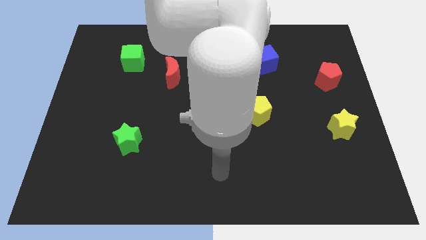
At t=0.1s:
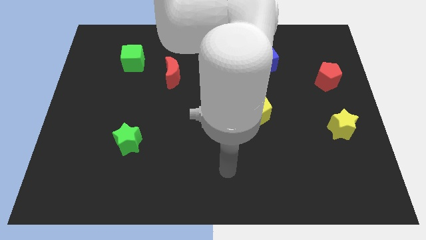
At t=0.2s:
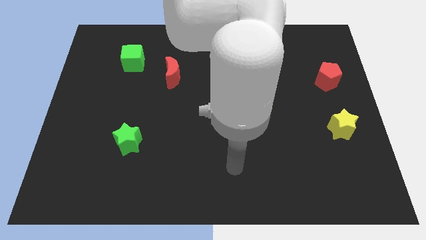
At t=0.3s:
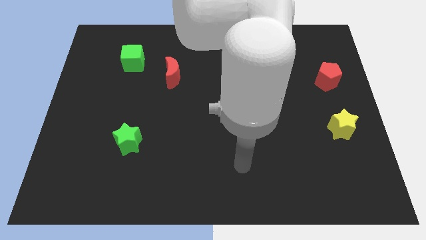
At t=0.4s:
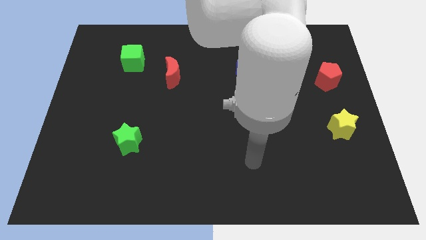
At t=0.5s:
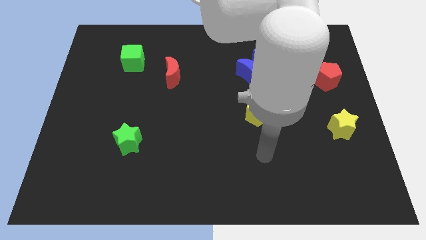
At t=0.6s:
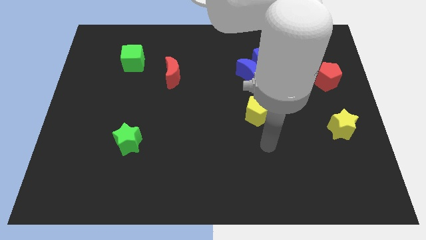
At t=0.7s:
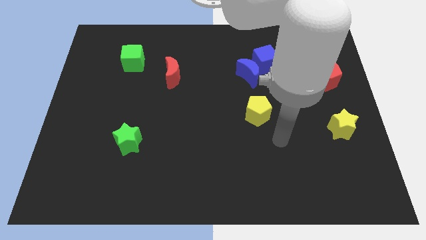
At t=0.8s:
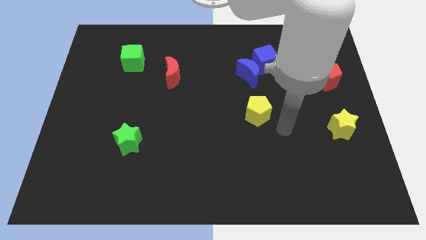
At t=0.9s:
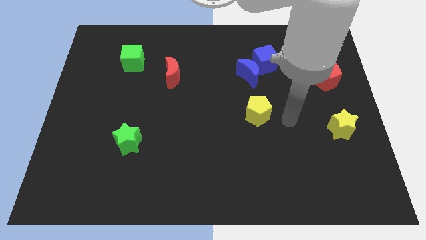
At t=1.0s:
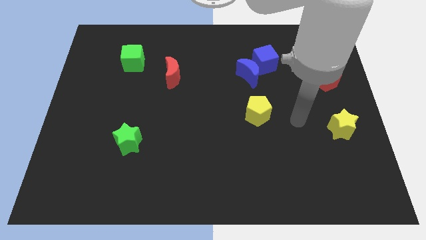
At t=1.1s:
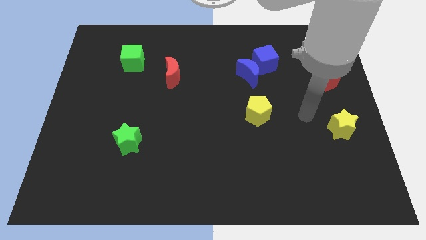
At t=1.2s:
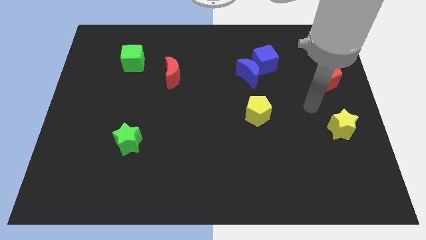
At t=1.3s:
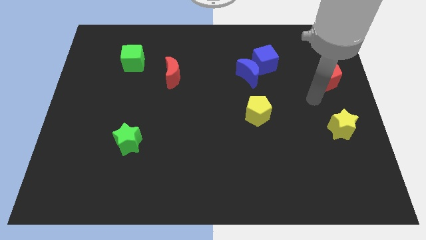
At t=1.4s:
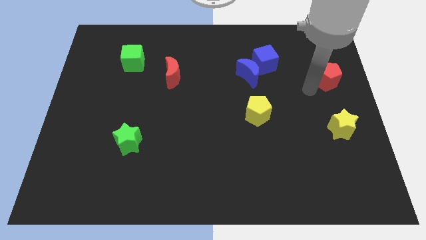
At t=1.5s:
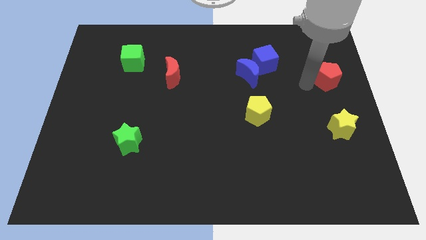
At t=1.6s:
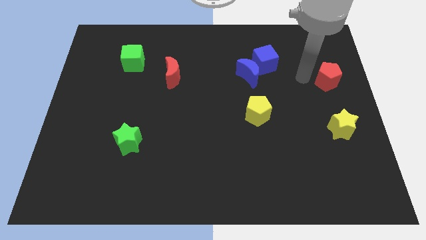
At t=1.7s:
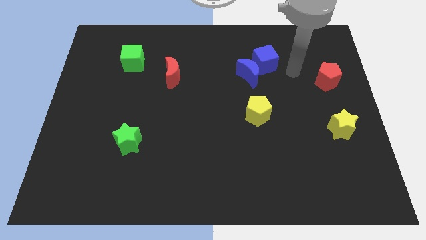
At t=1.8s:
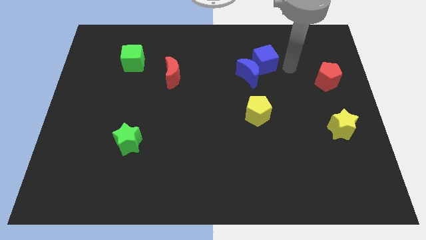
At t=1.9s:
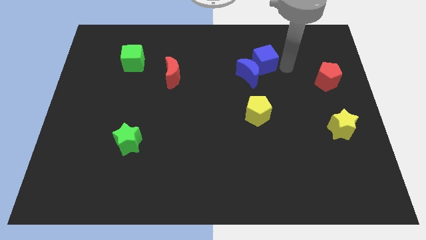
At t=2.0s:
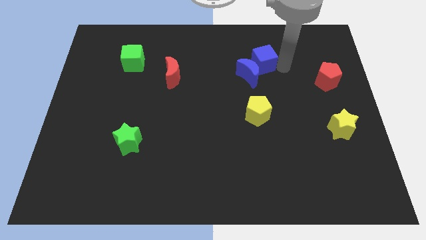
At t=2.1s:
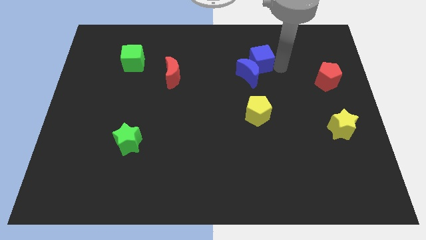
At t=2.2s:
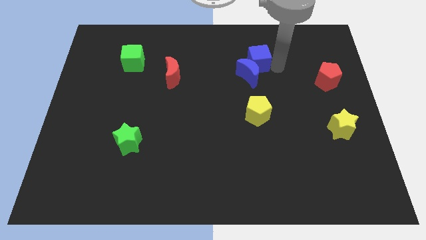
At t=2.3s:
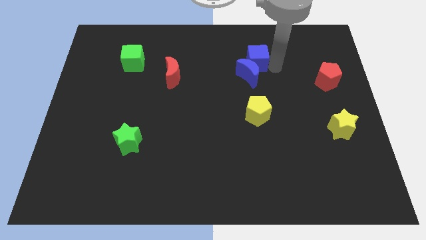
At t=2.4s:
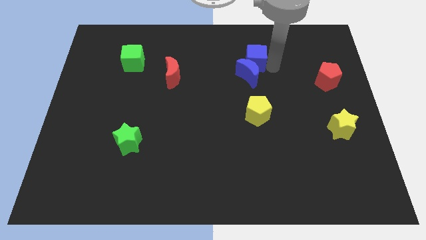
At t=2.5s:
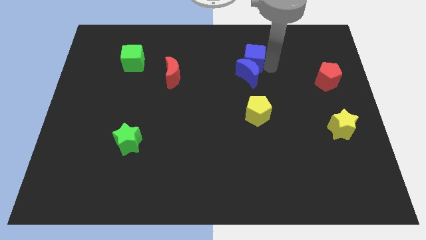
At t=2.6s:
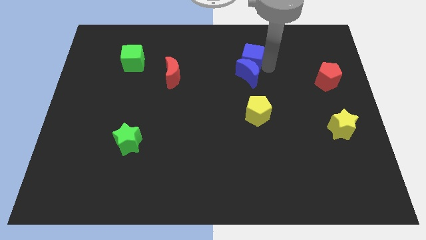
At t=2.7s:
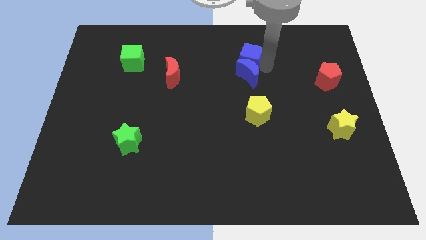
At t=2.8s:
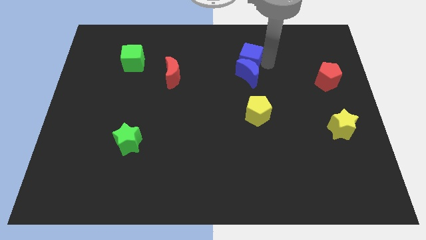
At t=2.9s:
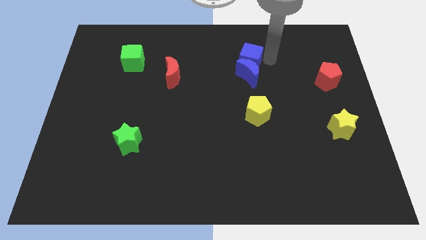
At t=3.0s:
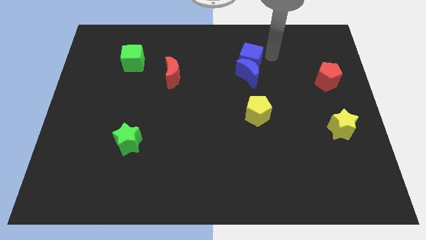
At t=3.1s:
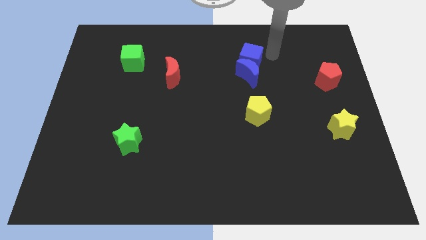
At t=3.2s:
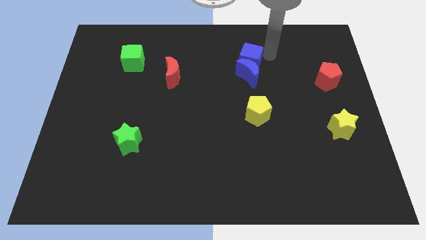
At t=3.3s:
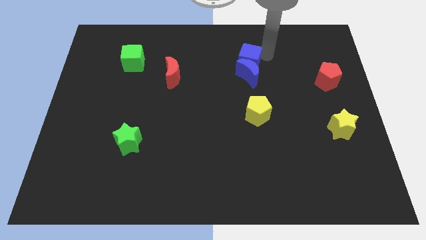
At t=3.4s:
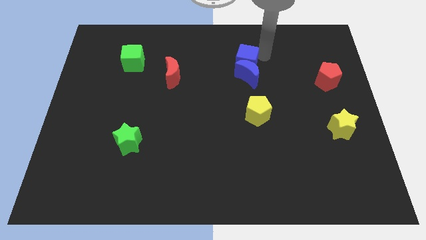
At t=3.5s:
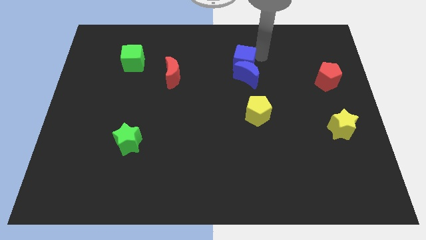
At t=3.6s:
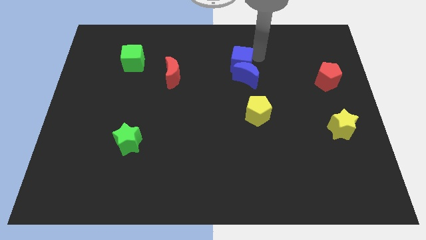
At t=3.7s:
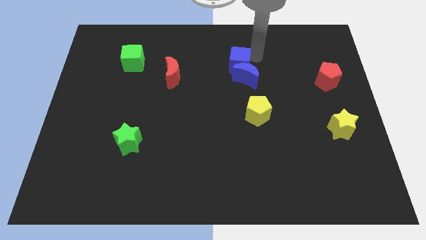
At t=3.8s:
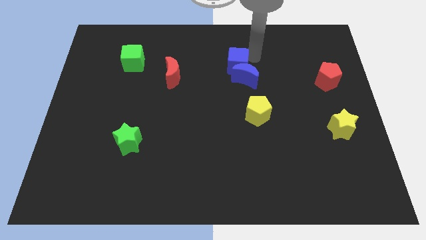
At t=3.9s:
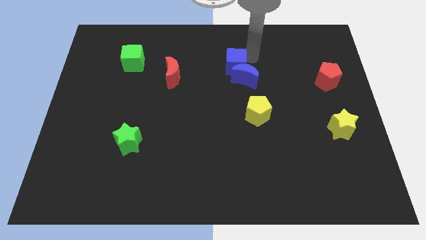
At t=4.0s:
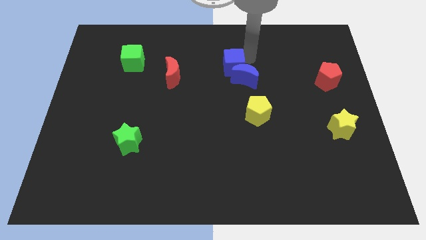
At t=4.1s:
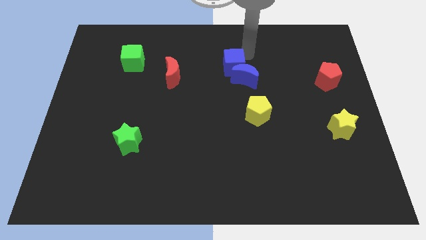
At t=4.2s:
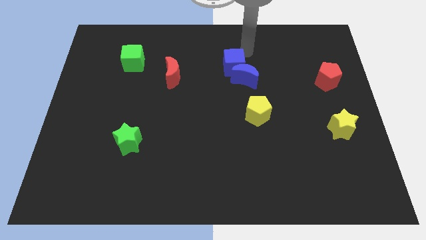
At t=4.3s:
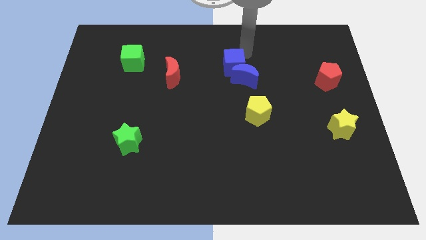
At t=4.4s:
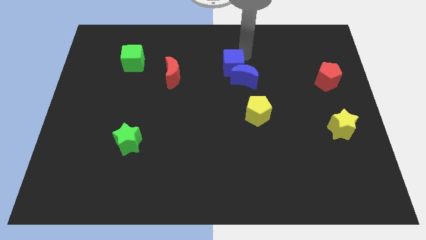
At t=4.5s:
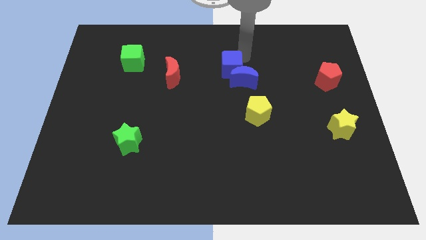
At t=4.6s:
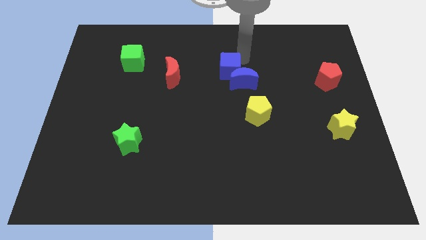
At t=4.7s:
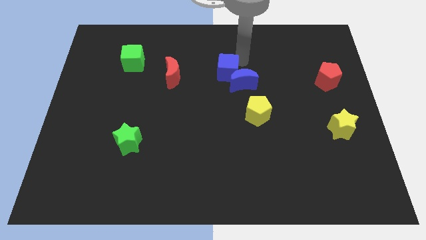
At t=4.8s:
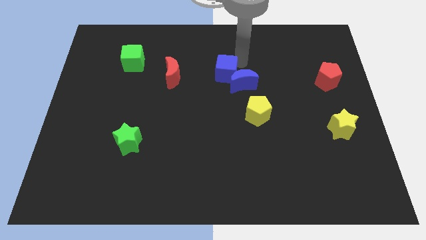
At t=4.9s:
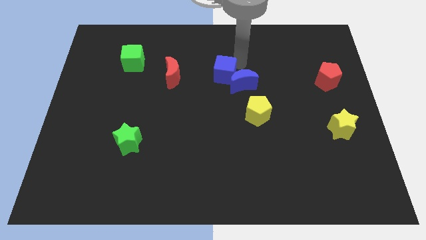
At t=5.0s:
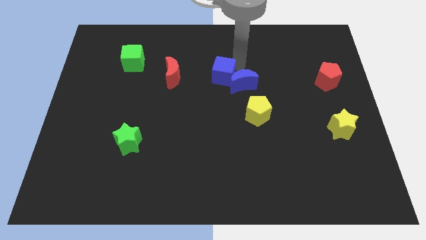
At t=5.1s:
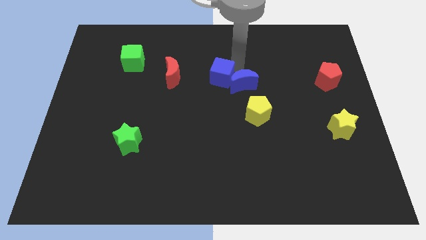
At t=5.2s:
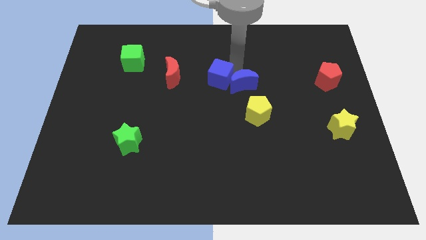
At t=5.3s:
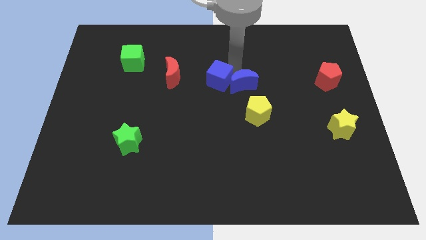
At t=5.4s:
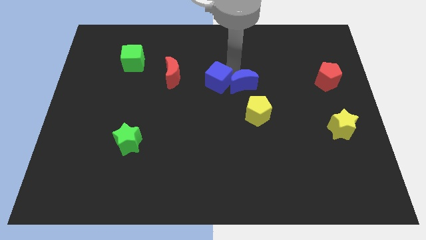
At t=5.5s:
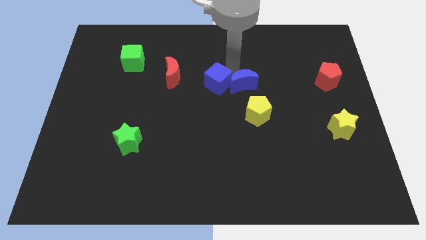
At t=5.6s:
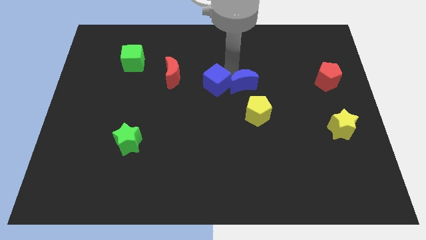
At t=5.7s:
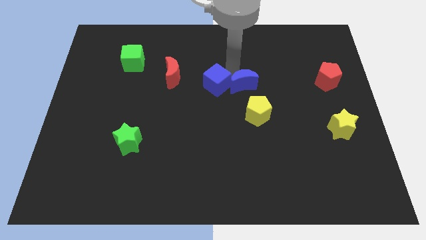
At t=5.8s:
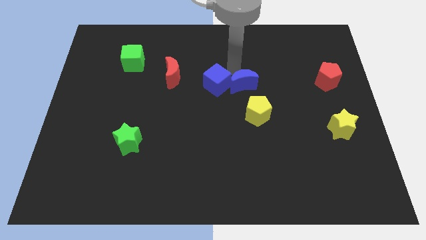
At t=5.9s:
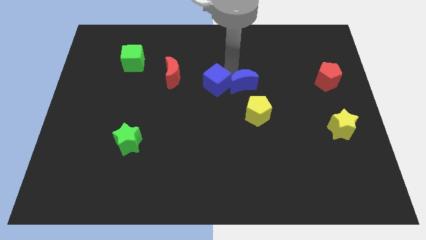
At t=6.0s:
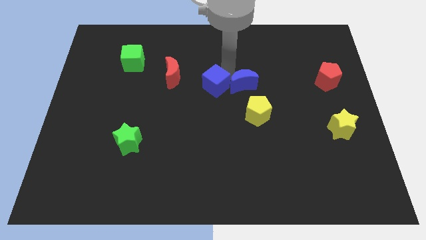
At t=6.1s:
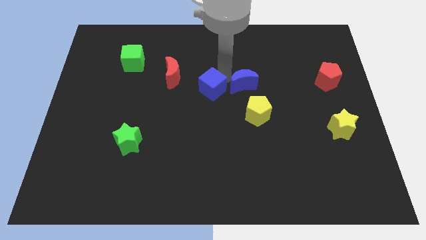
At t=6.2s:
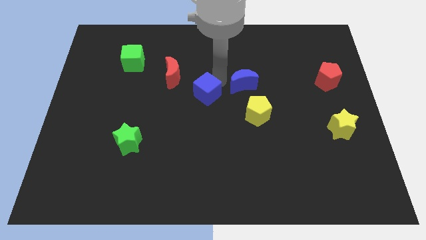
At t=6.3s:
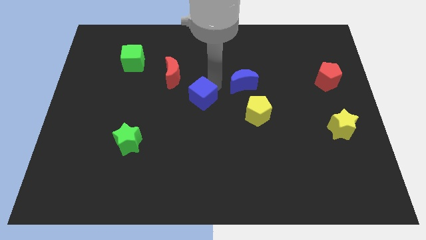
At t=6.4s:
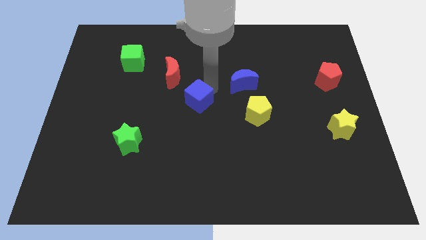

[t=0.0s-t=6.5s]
push the blue cube down and to the left diagonally

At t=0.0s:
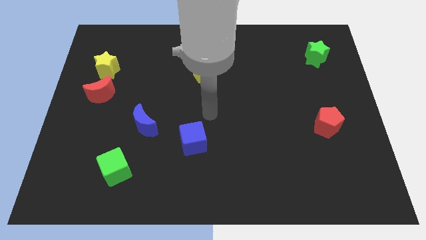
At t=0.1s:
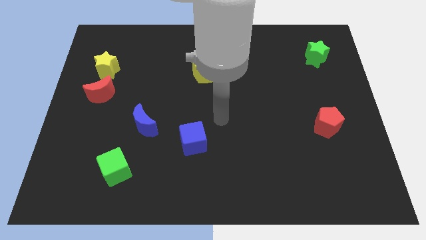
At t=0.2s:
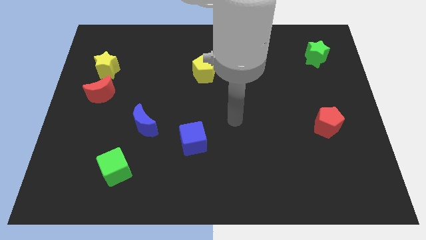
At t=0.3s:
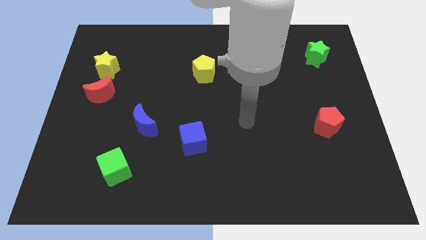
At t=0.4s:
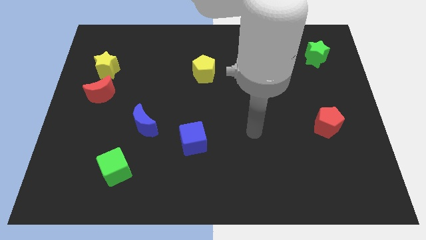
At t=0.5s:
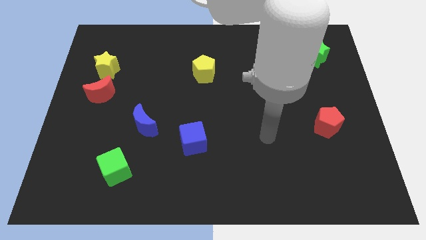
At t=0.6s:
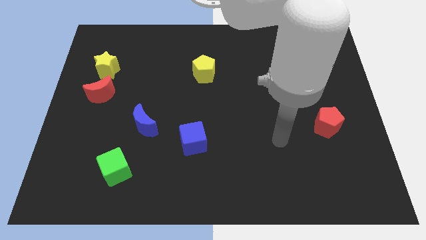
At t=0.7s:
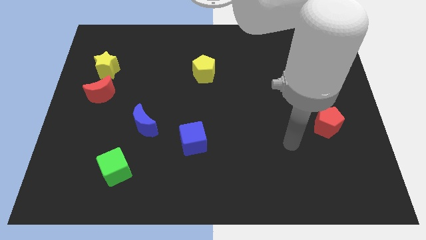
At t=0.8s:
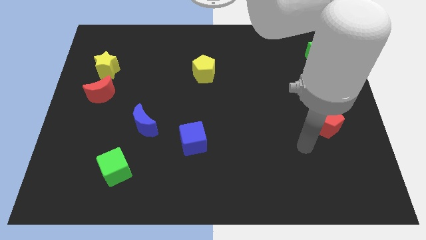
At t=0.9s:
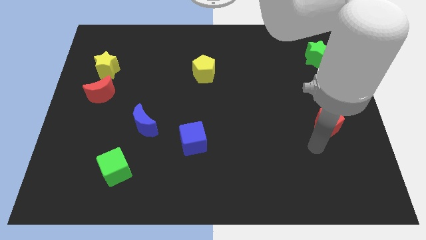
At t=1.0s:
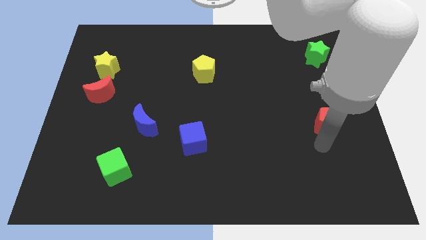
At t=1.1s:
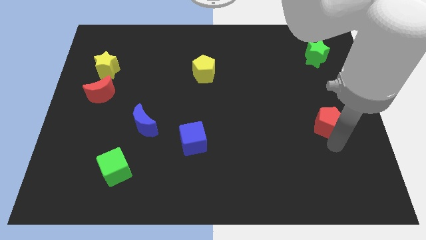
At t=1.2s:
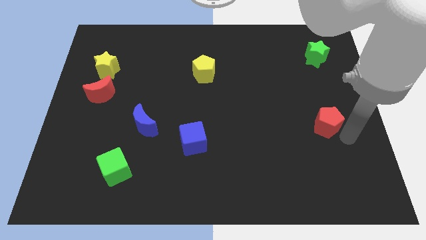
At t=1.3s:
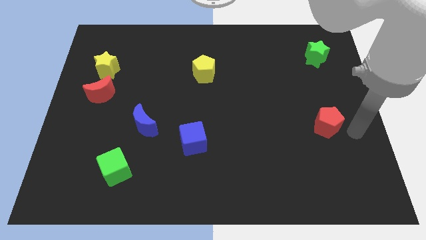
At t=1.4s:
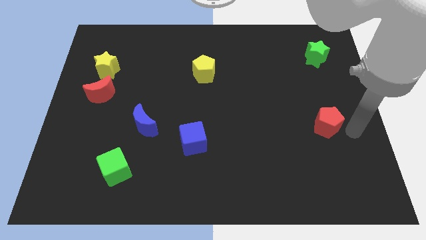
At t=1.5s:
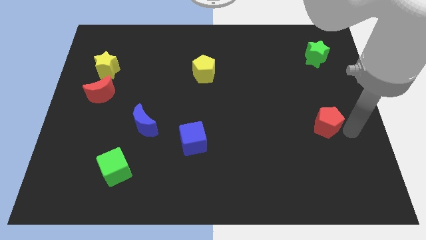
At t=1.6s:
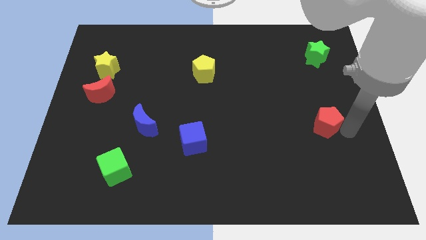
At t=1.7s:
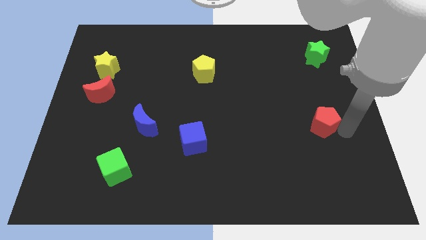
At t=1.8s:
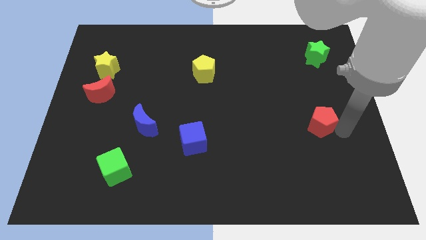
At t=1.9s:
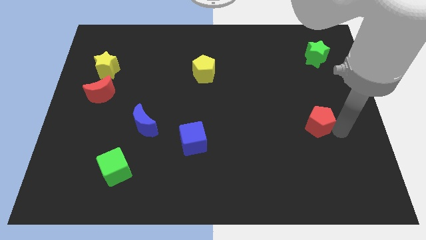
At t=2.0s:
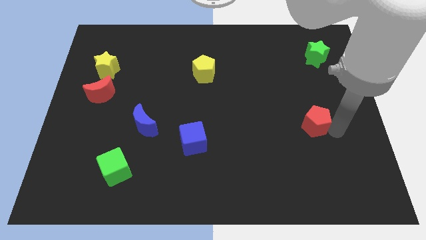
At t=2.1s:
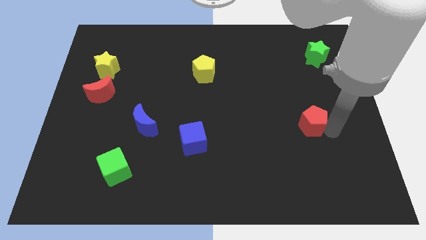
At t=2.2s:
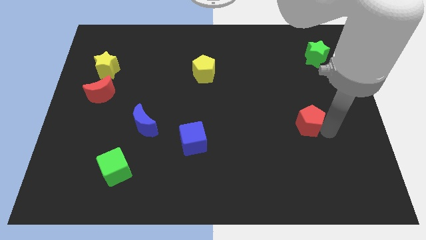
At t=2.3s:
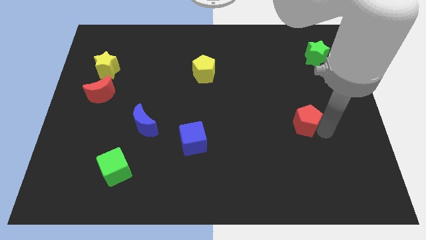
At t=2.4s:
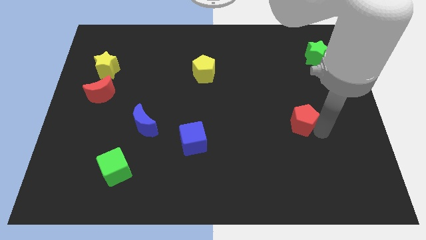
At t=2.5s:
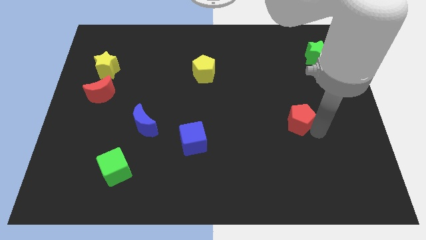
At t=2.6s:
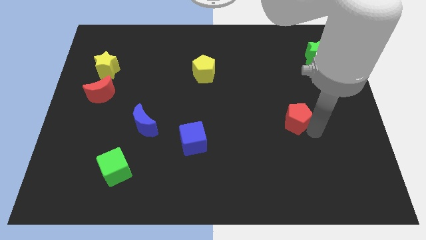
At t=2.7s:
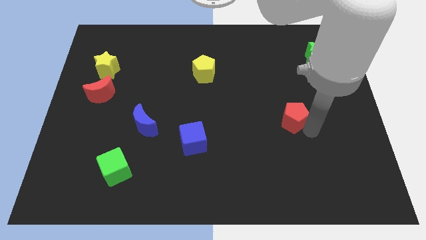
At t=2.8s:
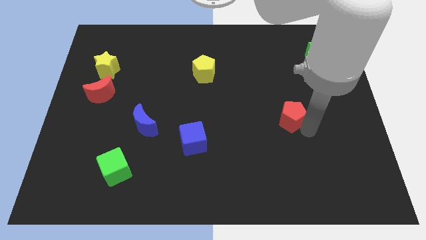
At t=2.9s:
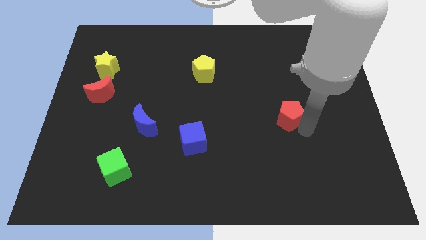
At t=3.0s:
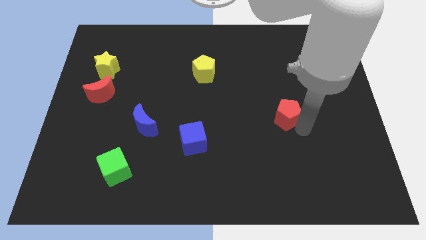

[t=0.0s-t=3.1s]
slightly push the red pentagon upwards and left diagonally
